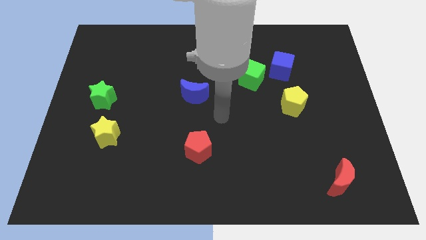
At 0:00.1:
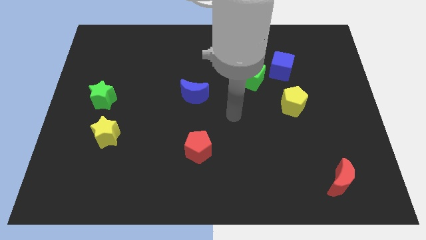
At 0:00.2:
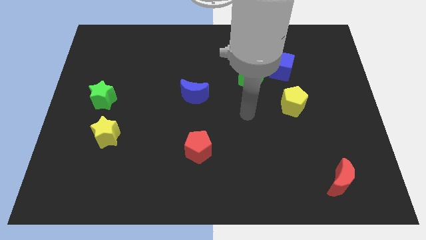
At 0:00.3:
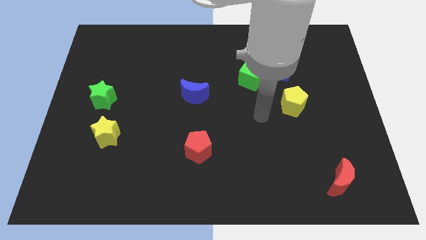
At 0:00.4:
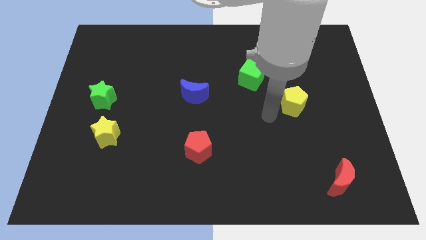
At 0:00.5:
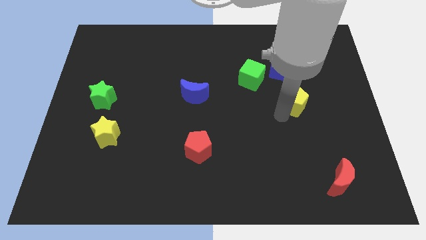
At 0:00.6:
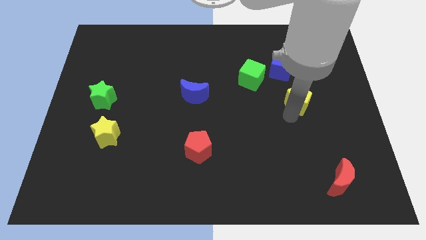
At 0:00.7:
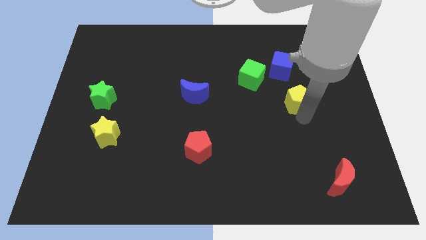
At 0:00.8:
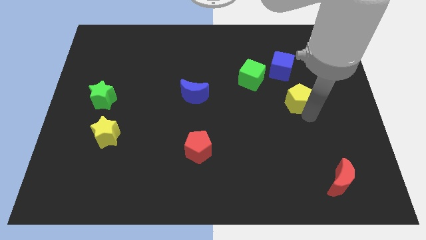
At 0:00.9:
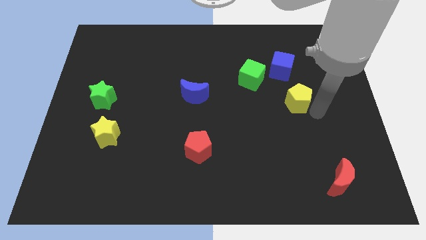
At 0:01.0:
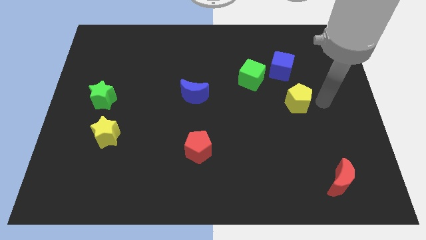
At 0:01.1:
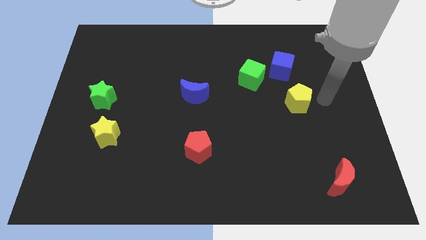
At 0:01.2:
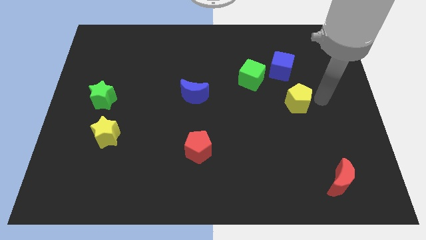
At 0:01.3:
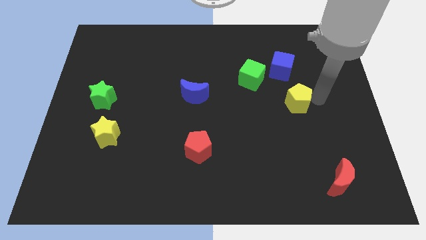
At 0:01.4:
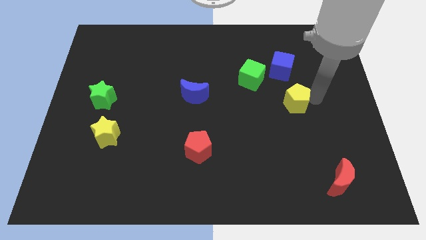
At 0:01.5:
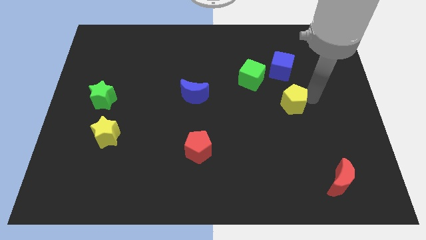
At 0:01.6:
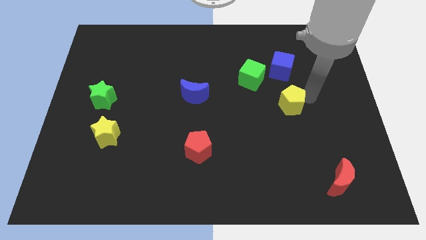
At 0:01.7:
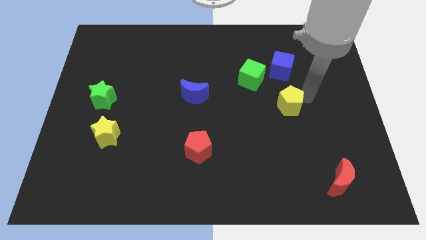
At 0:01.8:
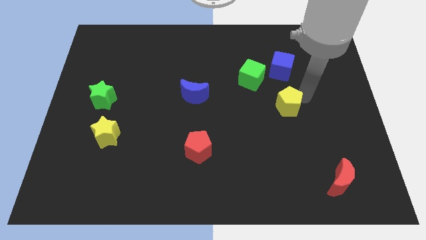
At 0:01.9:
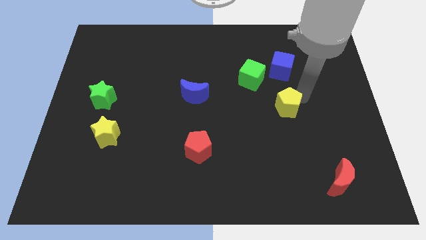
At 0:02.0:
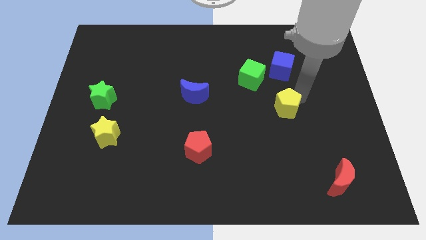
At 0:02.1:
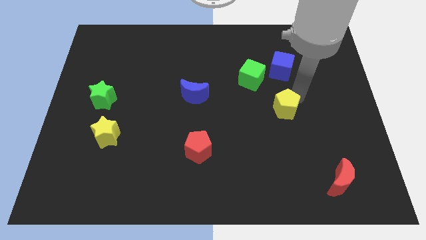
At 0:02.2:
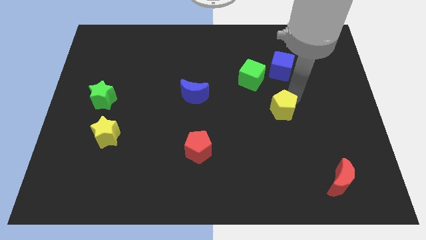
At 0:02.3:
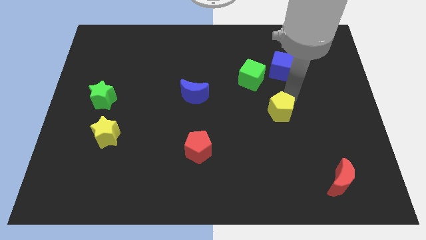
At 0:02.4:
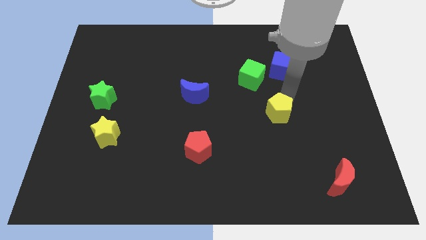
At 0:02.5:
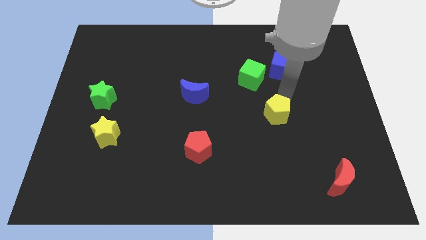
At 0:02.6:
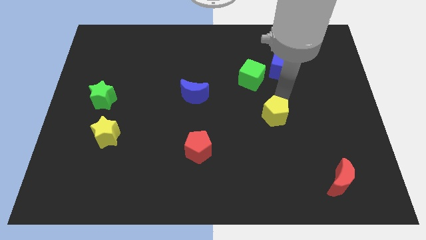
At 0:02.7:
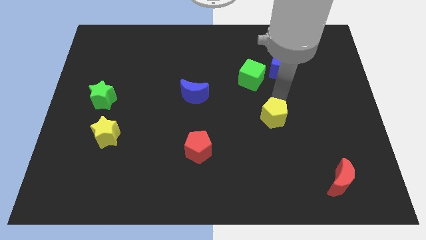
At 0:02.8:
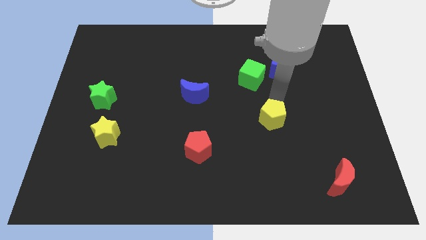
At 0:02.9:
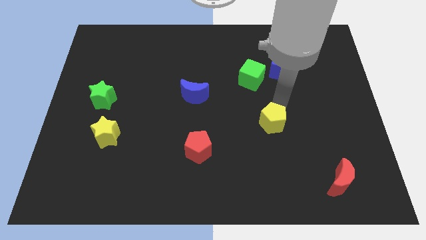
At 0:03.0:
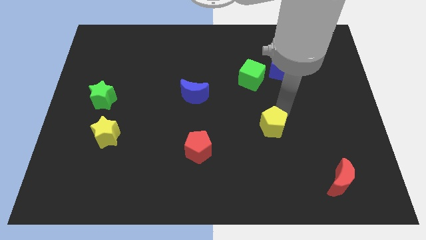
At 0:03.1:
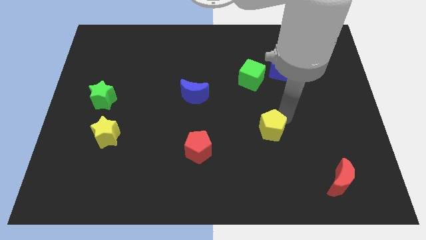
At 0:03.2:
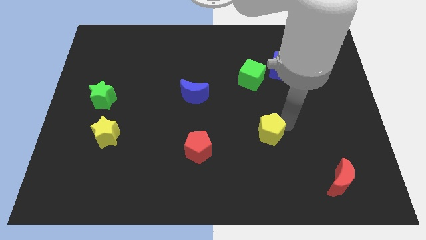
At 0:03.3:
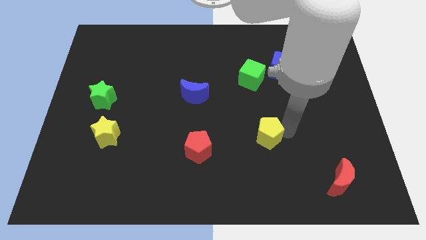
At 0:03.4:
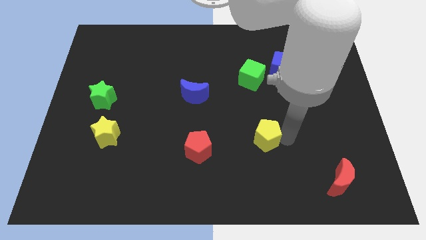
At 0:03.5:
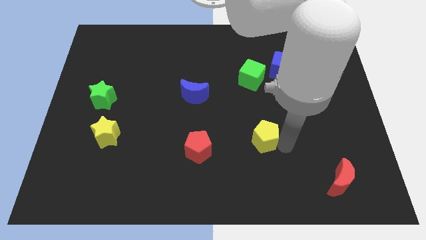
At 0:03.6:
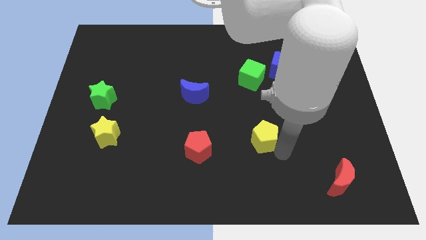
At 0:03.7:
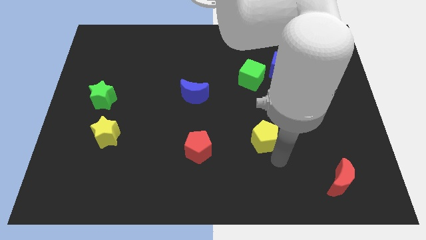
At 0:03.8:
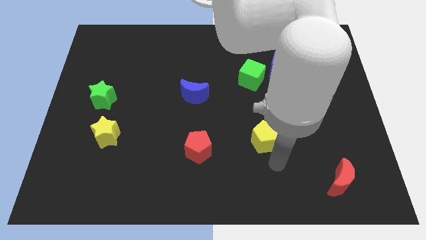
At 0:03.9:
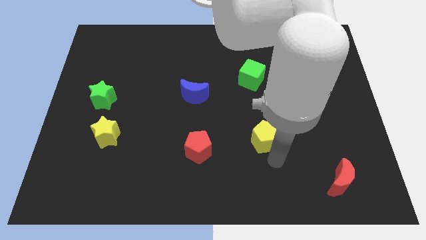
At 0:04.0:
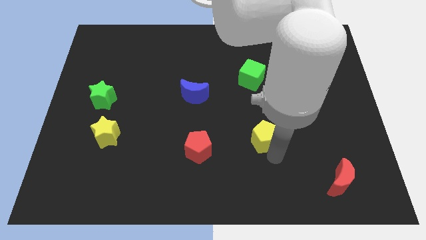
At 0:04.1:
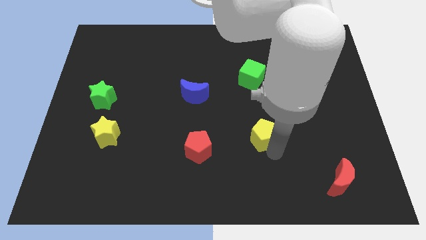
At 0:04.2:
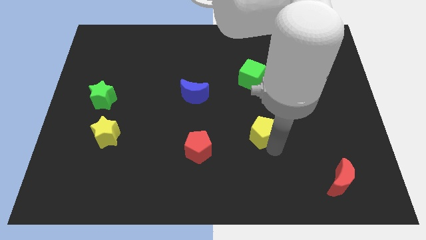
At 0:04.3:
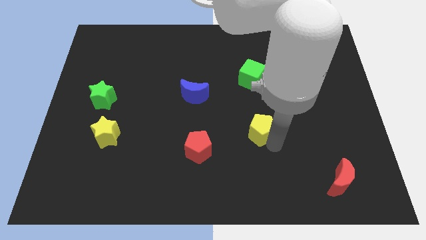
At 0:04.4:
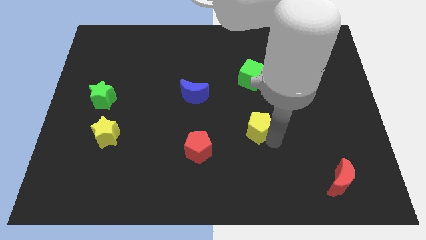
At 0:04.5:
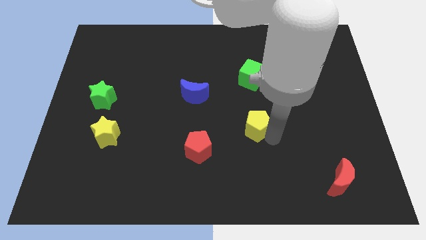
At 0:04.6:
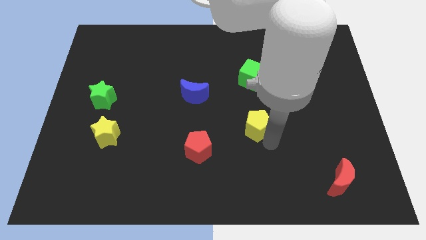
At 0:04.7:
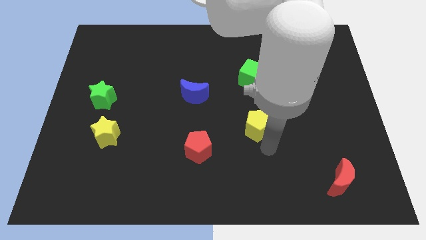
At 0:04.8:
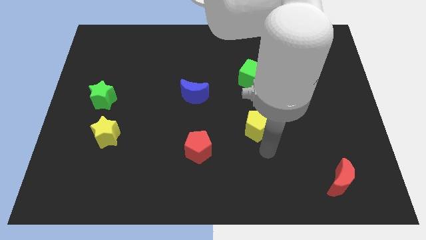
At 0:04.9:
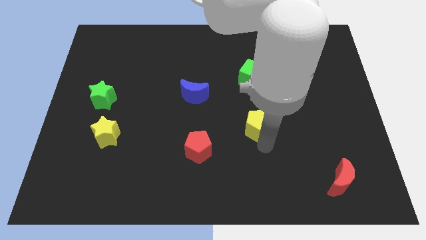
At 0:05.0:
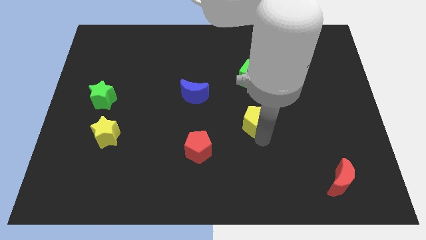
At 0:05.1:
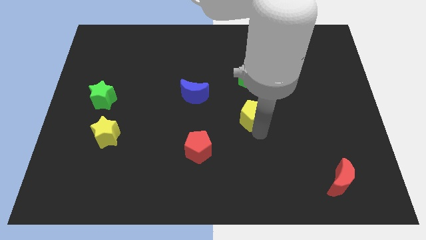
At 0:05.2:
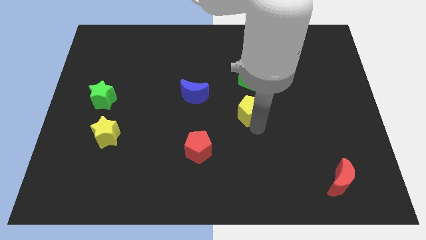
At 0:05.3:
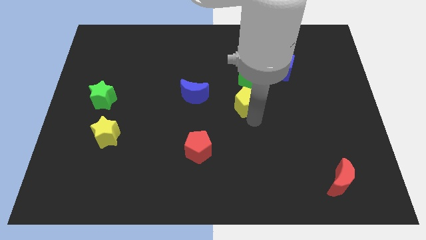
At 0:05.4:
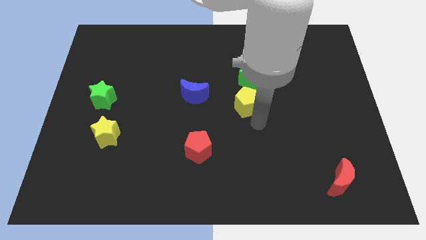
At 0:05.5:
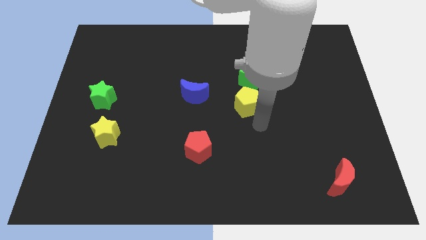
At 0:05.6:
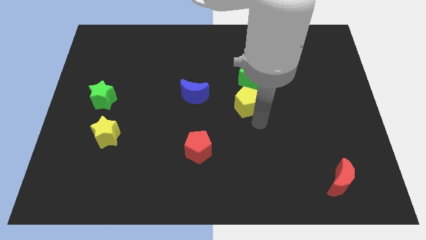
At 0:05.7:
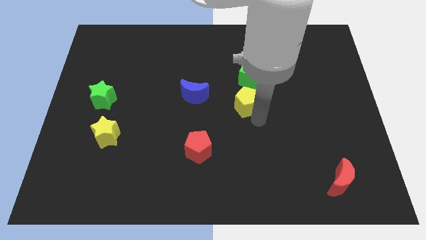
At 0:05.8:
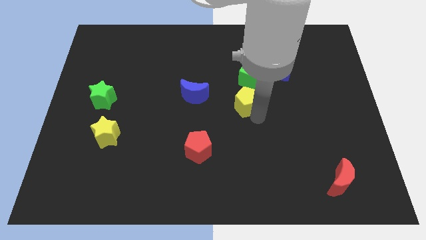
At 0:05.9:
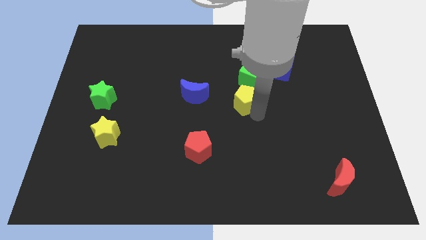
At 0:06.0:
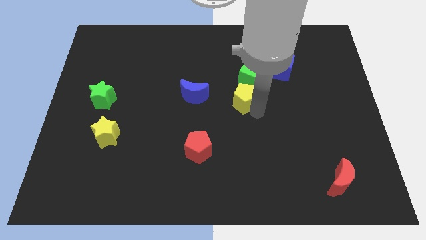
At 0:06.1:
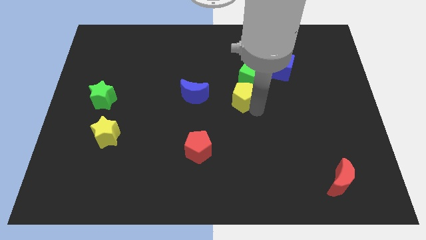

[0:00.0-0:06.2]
move the yellow pentagon upwards and to the left somewhat

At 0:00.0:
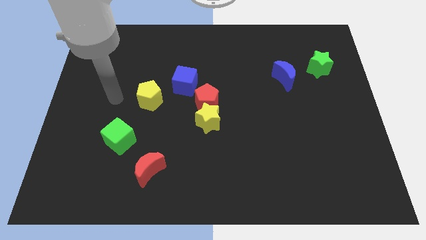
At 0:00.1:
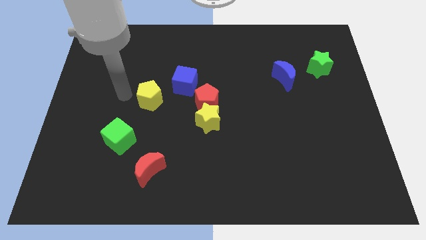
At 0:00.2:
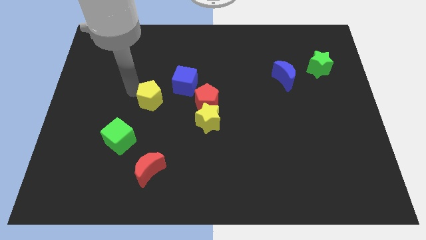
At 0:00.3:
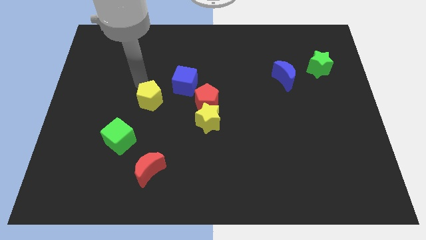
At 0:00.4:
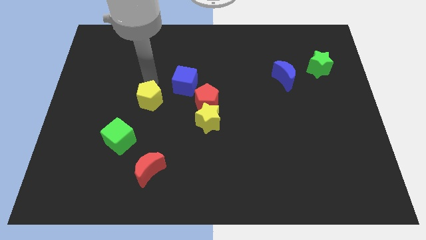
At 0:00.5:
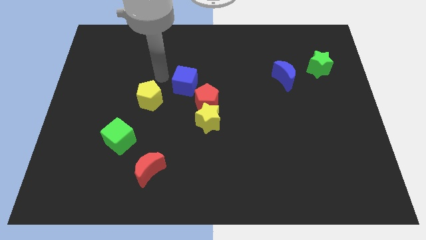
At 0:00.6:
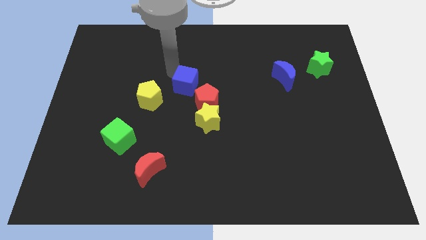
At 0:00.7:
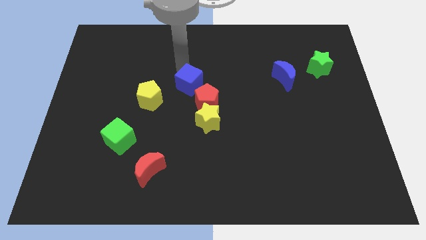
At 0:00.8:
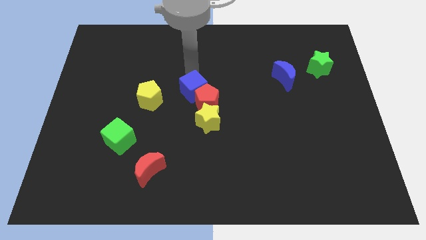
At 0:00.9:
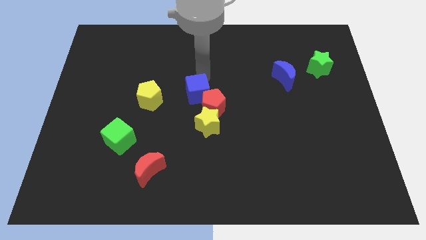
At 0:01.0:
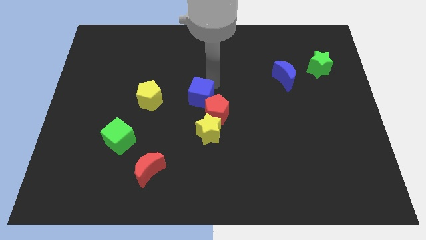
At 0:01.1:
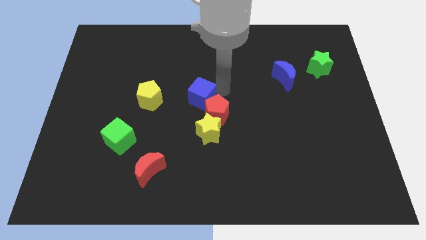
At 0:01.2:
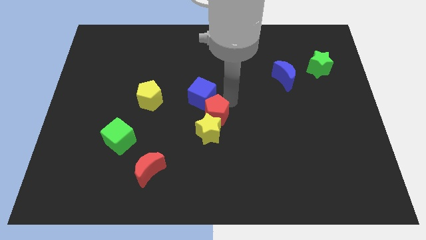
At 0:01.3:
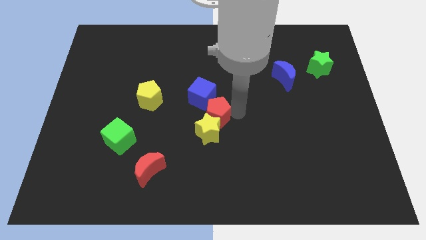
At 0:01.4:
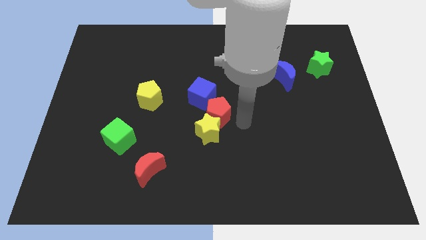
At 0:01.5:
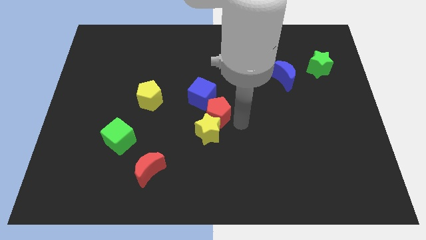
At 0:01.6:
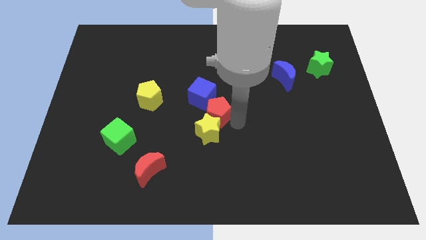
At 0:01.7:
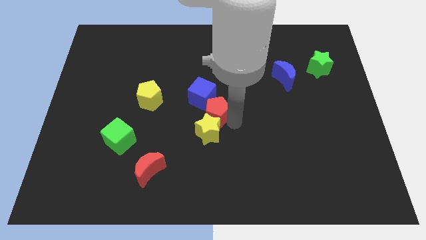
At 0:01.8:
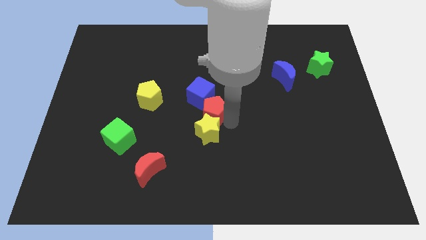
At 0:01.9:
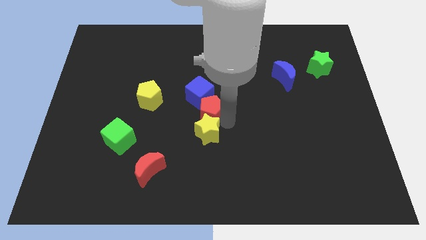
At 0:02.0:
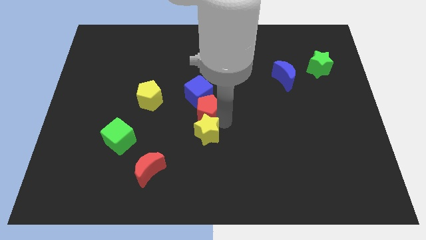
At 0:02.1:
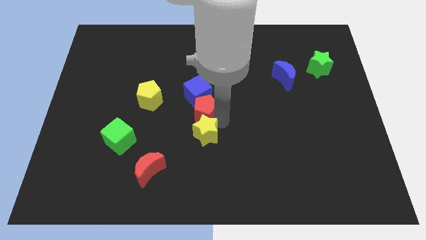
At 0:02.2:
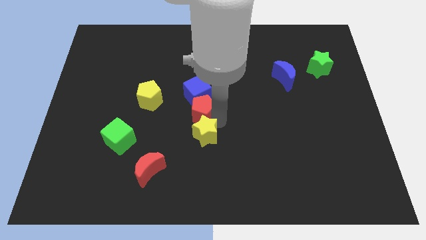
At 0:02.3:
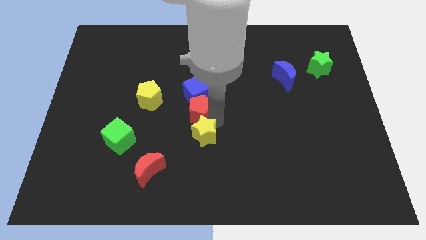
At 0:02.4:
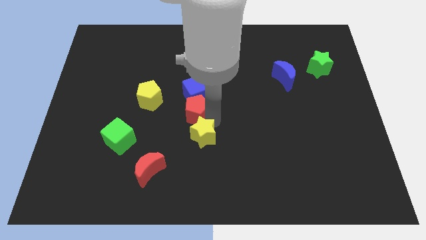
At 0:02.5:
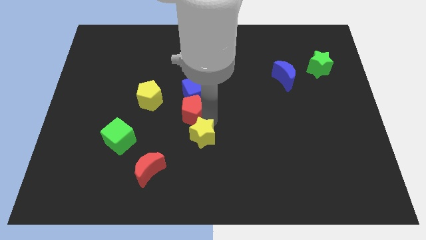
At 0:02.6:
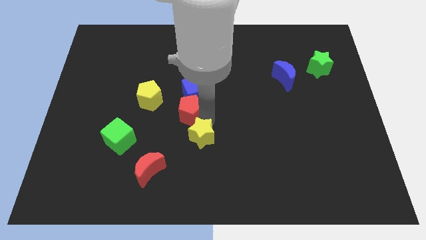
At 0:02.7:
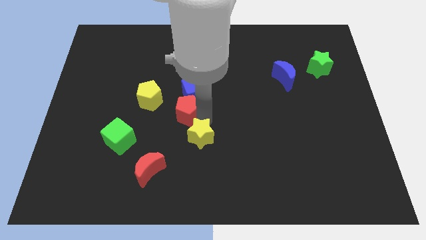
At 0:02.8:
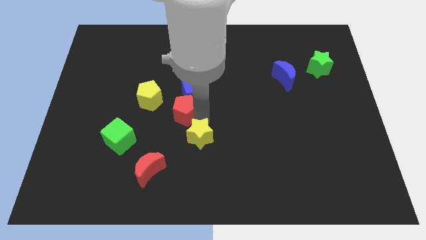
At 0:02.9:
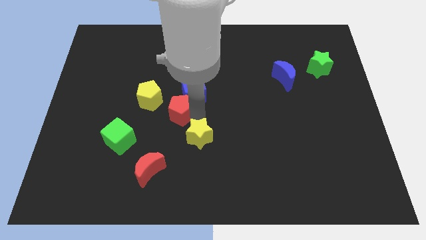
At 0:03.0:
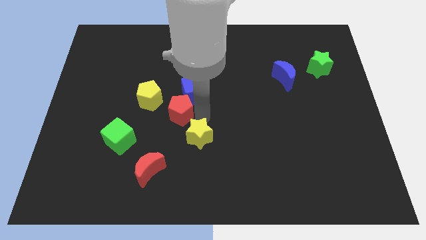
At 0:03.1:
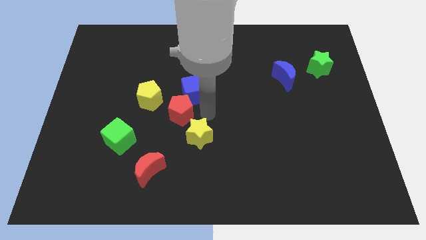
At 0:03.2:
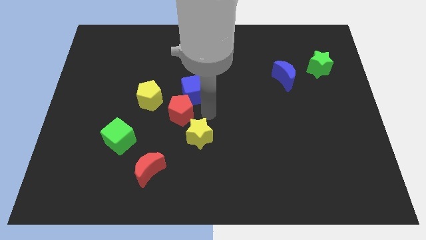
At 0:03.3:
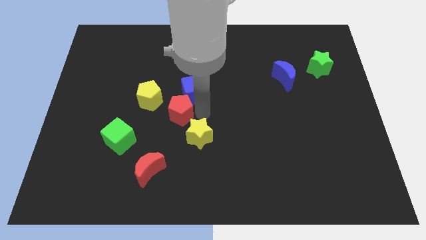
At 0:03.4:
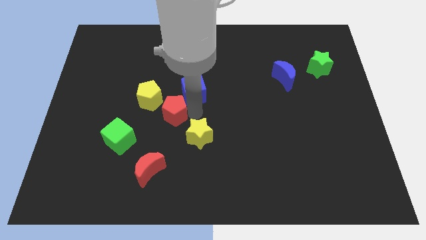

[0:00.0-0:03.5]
move the red pentagon somewhat to the left
